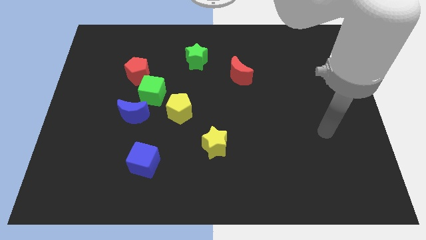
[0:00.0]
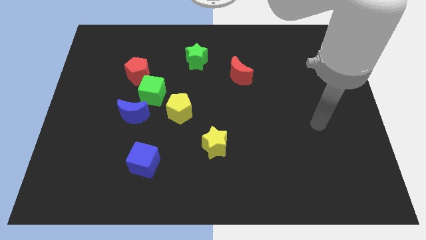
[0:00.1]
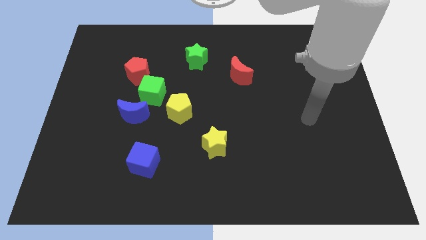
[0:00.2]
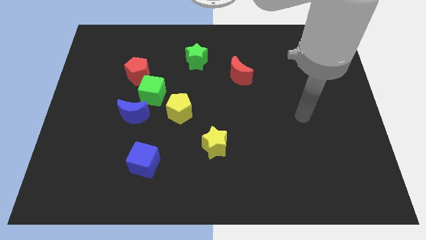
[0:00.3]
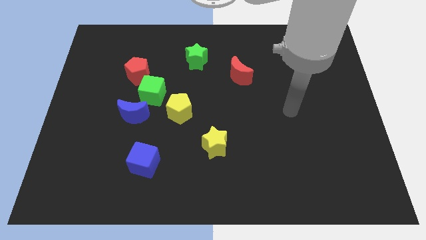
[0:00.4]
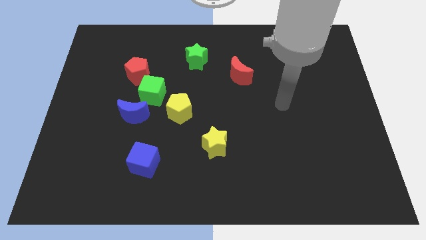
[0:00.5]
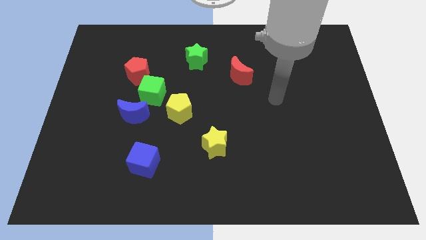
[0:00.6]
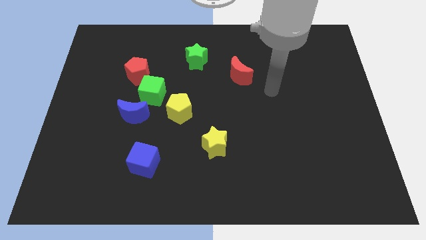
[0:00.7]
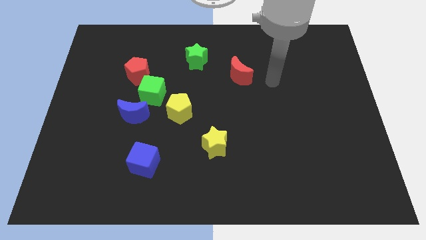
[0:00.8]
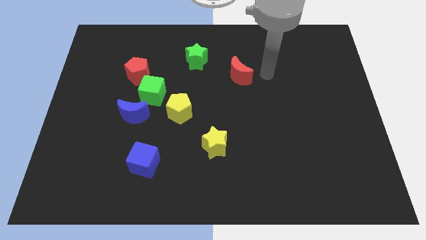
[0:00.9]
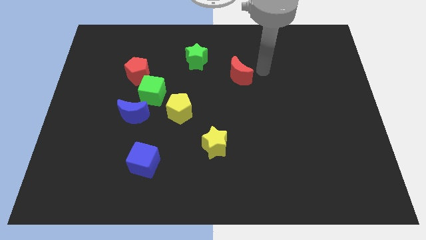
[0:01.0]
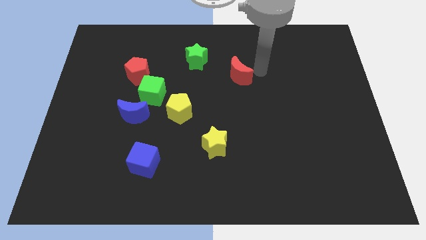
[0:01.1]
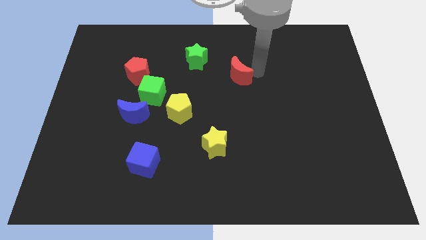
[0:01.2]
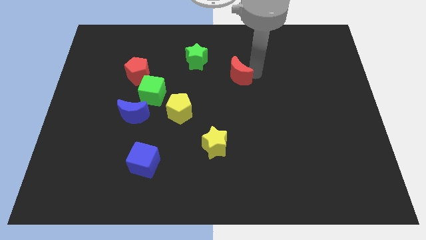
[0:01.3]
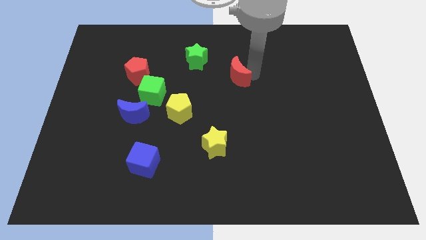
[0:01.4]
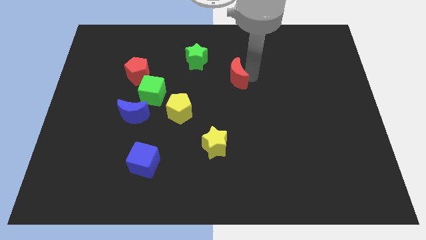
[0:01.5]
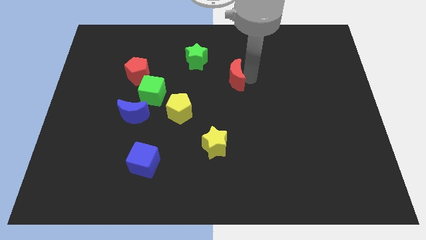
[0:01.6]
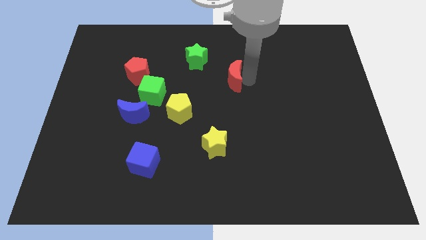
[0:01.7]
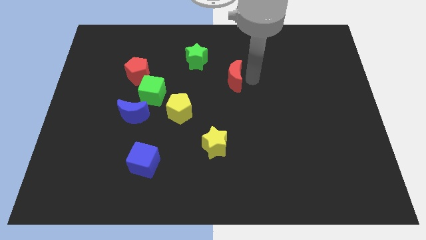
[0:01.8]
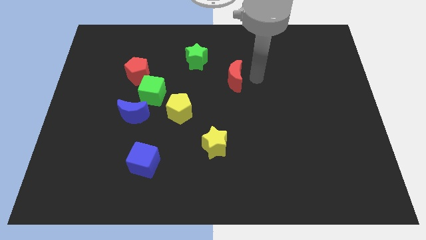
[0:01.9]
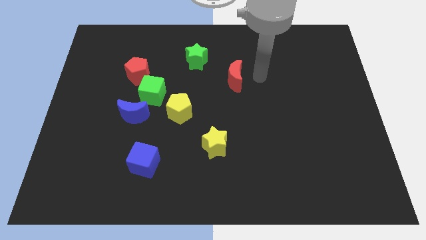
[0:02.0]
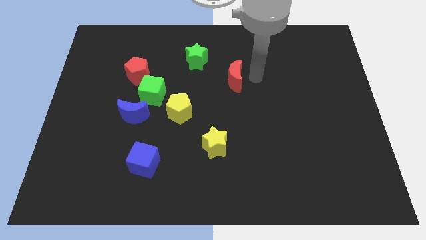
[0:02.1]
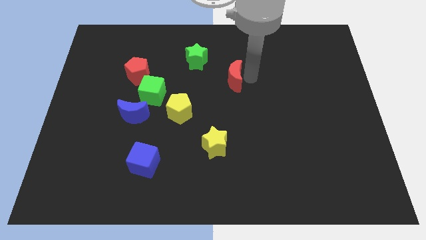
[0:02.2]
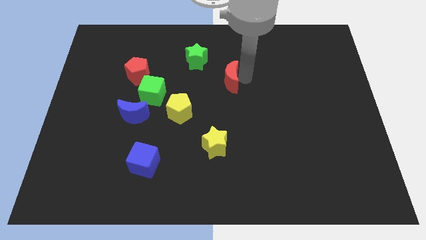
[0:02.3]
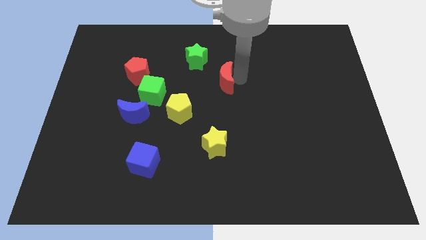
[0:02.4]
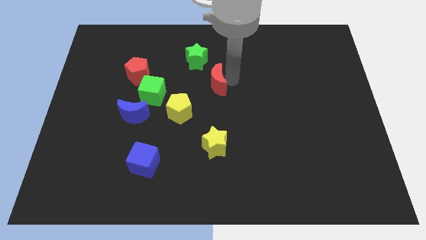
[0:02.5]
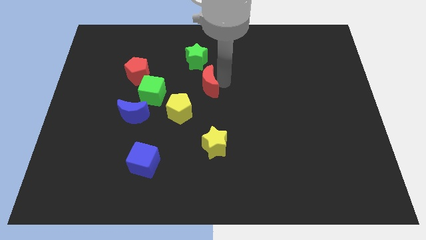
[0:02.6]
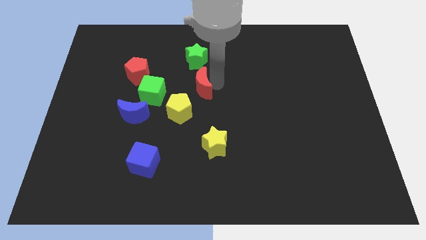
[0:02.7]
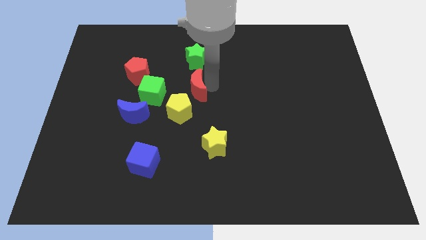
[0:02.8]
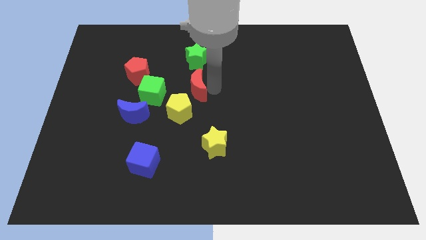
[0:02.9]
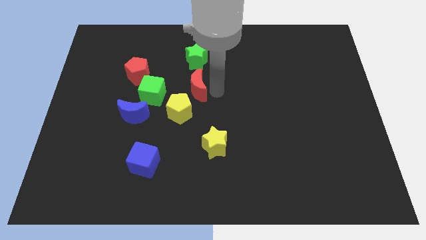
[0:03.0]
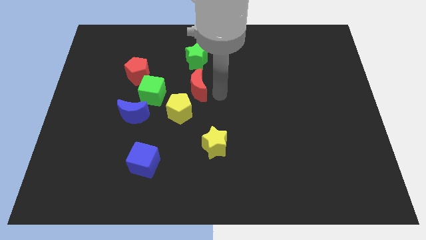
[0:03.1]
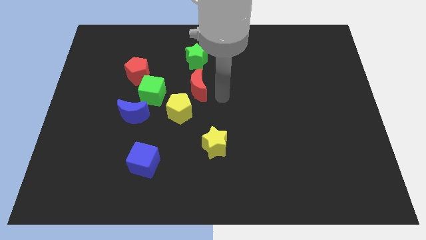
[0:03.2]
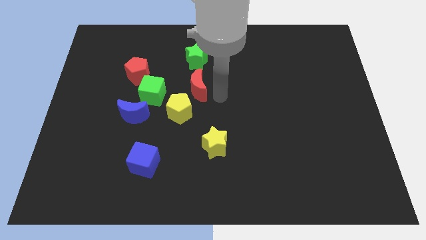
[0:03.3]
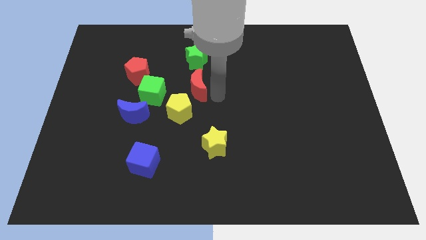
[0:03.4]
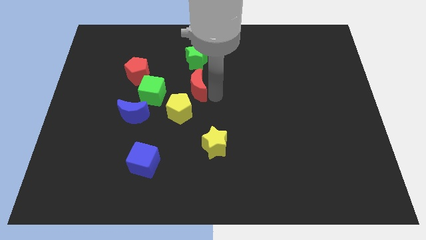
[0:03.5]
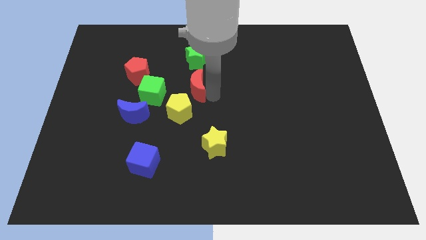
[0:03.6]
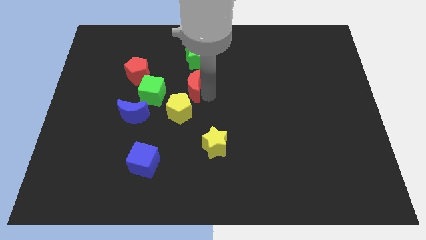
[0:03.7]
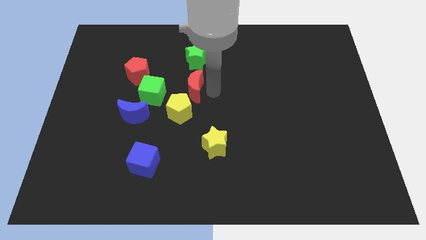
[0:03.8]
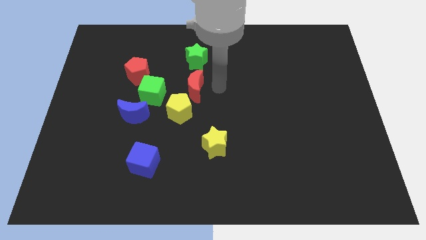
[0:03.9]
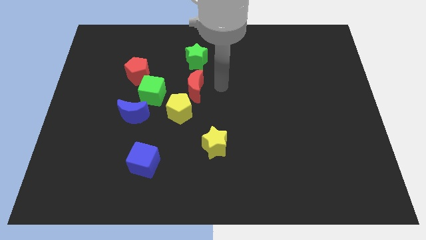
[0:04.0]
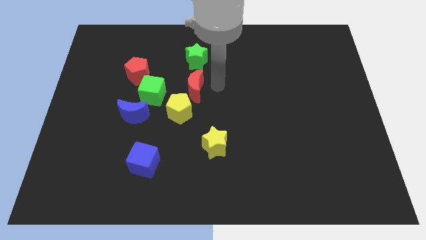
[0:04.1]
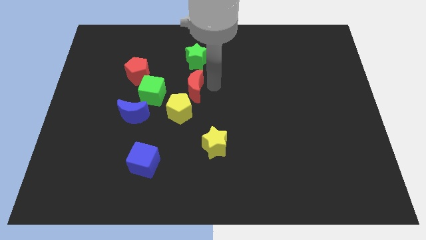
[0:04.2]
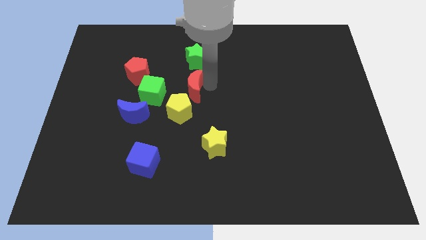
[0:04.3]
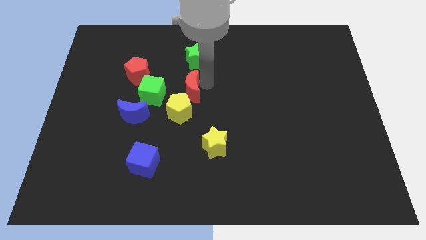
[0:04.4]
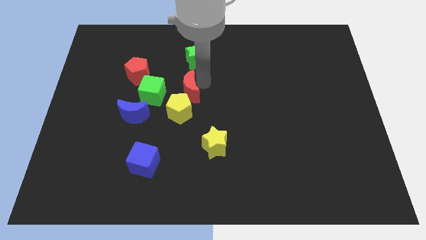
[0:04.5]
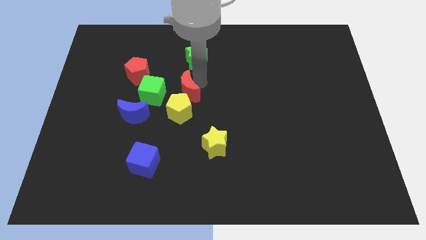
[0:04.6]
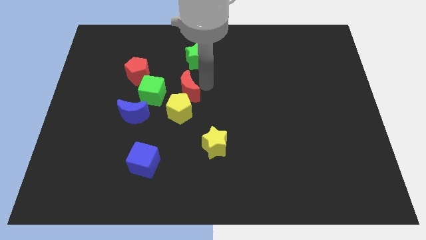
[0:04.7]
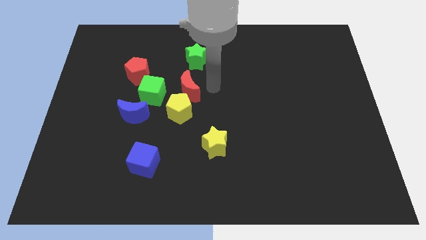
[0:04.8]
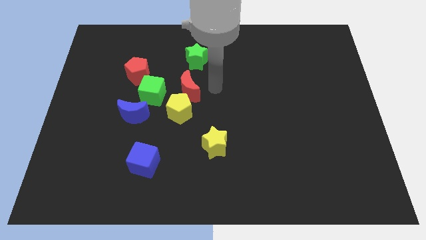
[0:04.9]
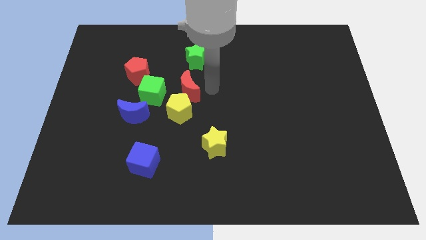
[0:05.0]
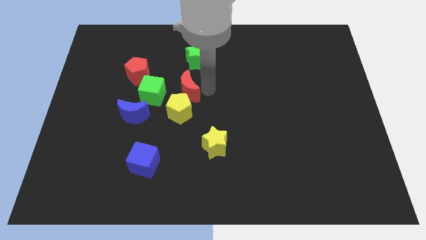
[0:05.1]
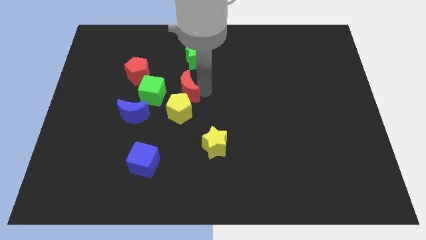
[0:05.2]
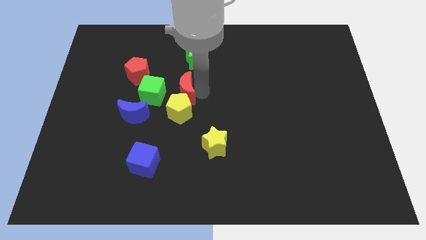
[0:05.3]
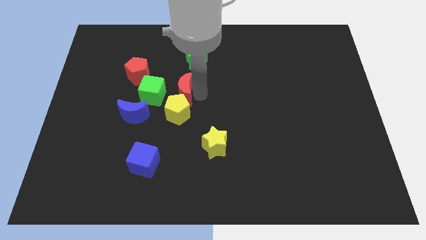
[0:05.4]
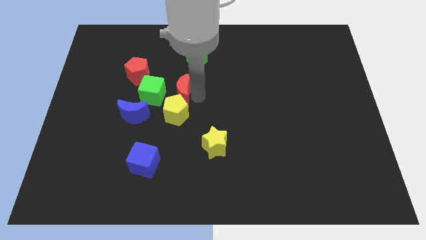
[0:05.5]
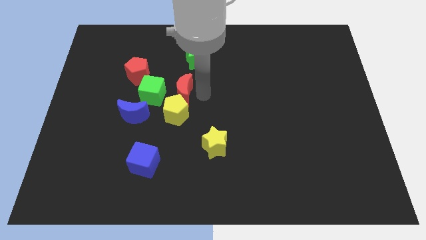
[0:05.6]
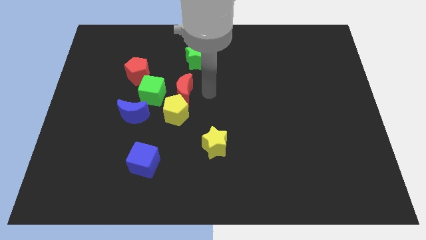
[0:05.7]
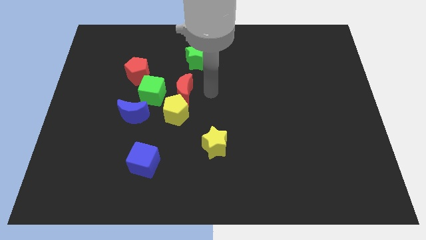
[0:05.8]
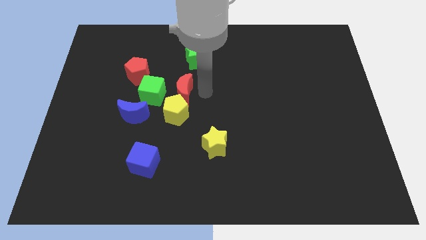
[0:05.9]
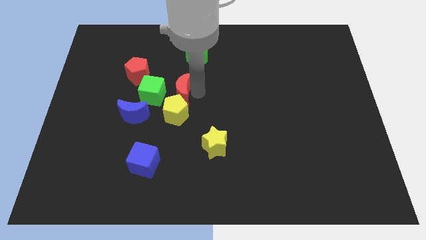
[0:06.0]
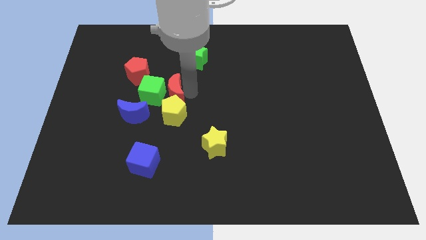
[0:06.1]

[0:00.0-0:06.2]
move the red moon towards the green cube

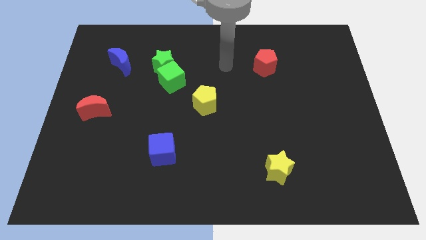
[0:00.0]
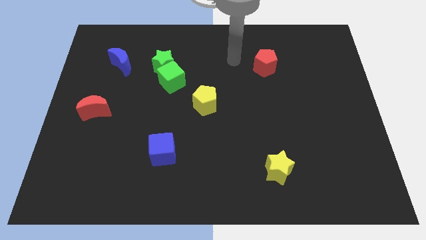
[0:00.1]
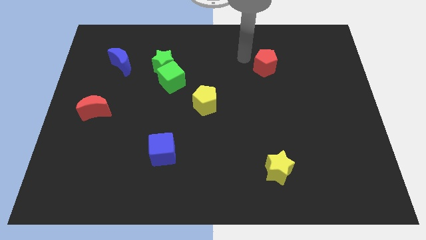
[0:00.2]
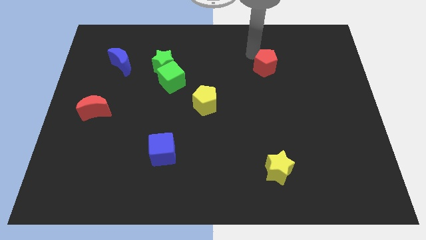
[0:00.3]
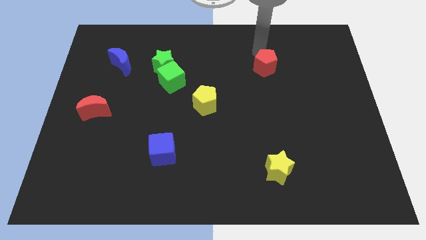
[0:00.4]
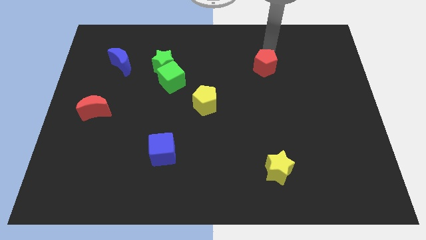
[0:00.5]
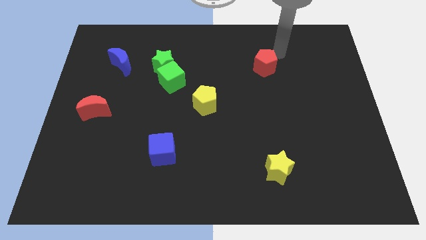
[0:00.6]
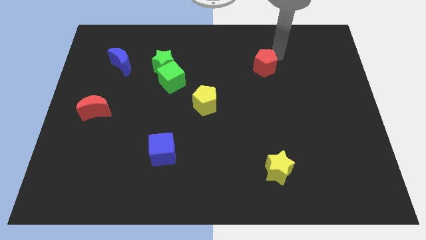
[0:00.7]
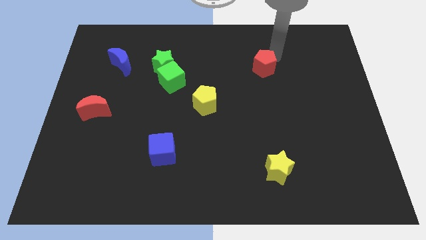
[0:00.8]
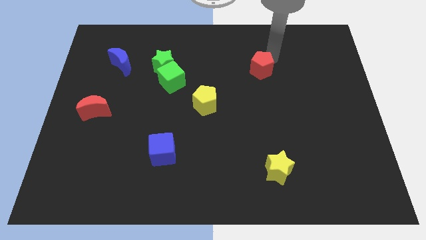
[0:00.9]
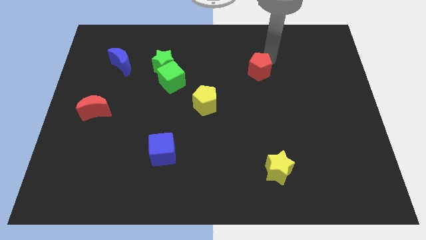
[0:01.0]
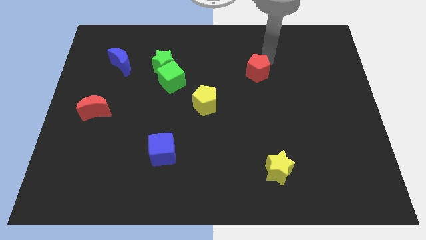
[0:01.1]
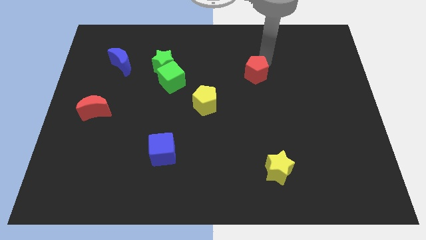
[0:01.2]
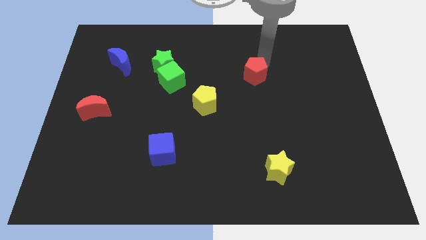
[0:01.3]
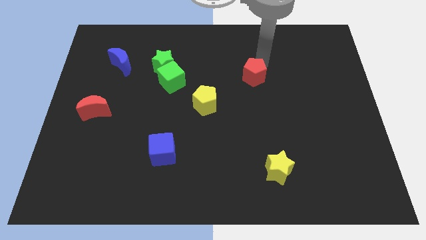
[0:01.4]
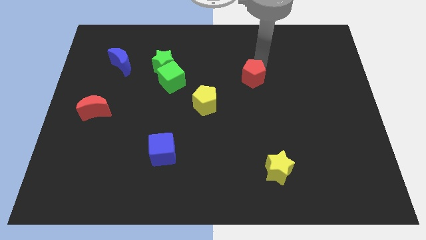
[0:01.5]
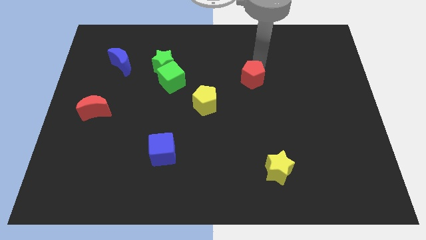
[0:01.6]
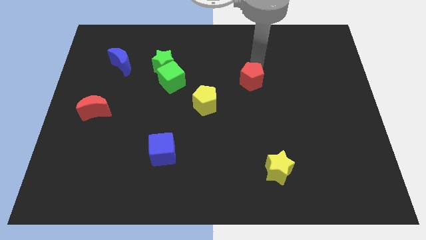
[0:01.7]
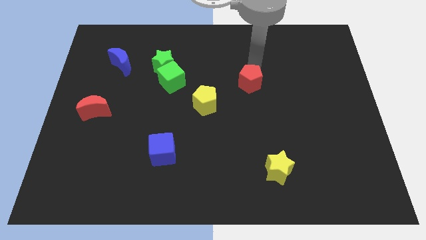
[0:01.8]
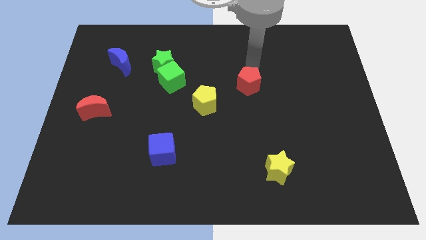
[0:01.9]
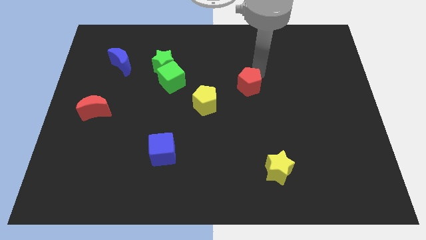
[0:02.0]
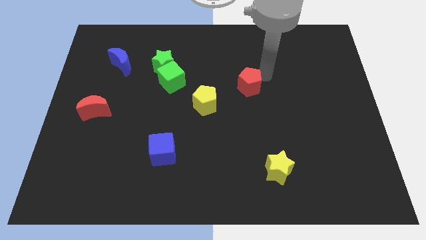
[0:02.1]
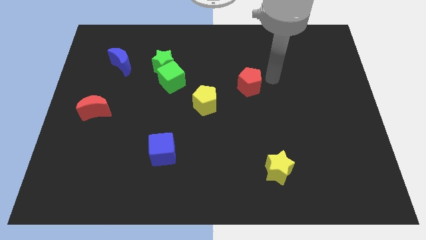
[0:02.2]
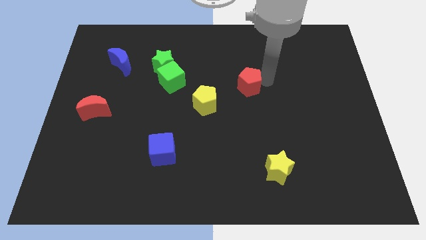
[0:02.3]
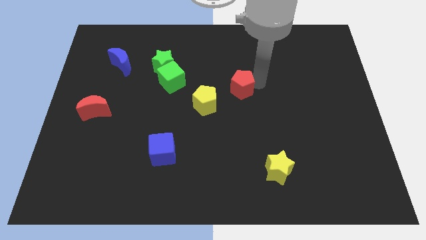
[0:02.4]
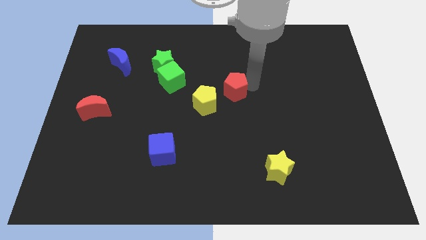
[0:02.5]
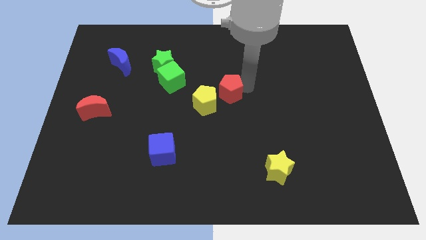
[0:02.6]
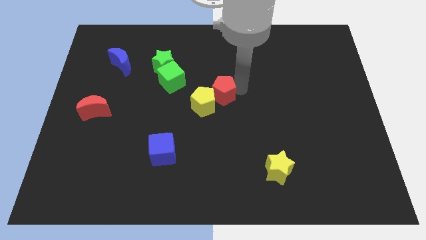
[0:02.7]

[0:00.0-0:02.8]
move the red pentagon close to the yellow pentagon
